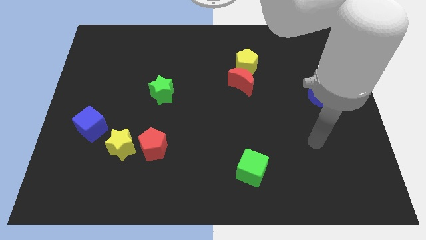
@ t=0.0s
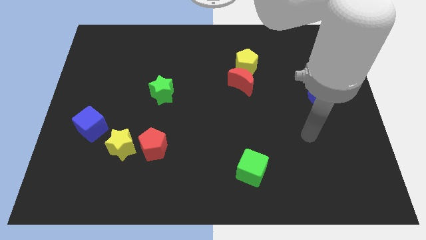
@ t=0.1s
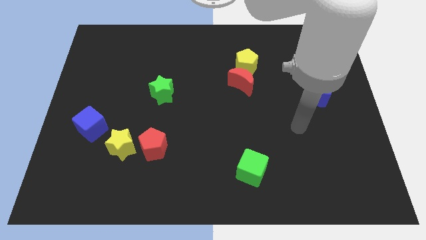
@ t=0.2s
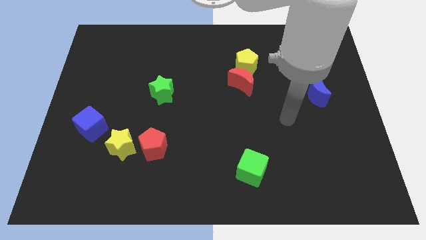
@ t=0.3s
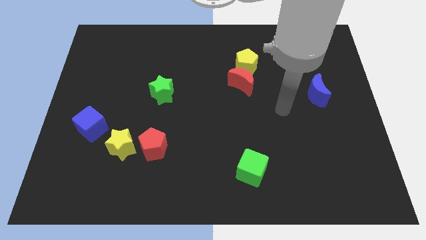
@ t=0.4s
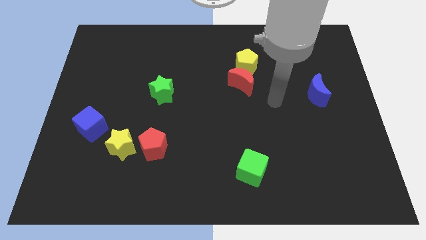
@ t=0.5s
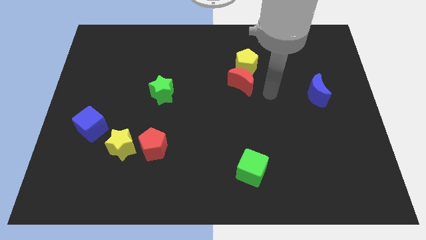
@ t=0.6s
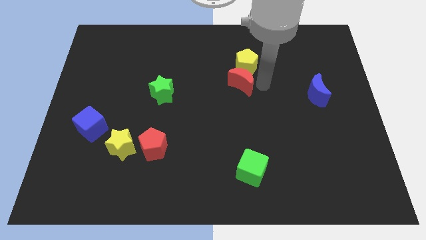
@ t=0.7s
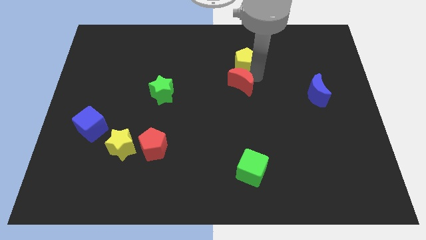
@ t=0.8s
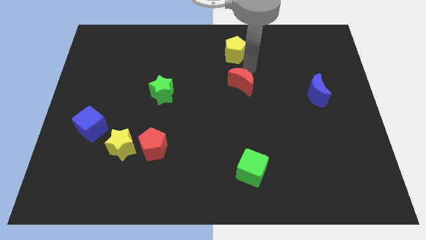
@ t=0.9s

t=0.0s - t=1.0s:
pull the red moon apart from the yellow pentagon

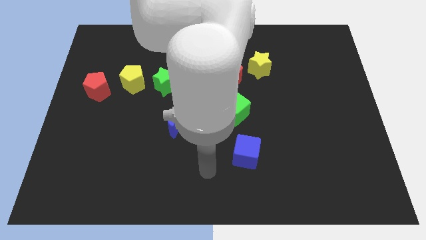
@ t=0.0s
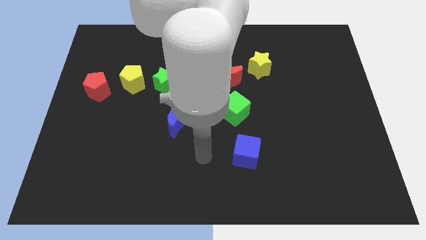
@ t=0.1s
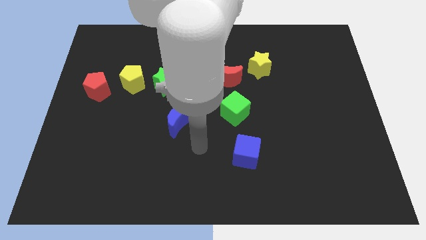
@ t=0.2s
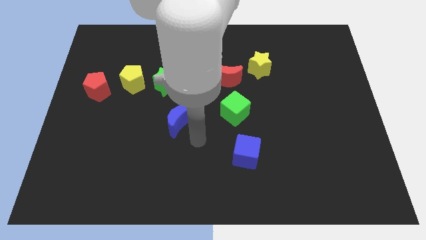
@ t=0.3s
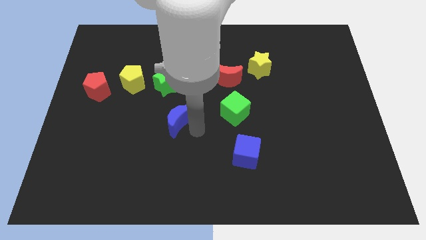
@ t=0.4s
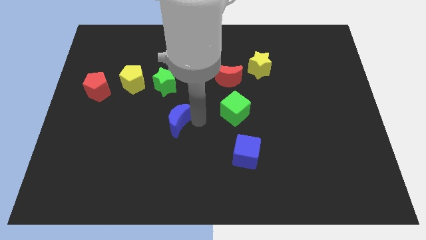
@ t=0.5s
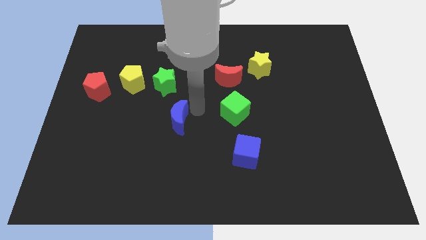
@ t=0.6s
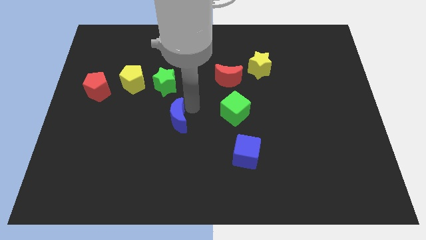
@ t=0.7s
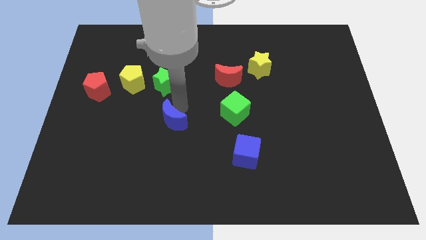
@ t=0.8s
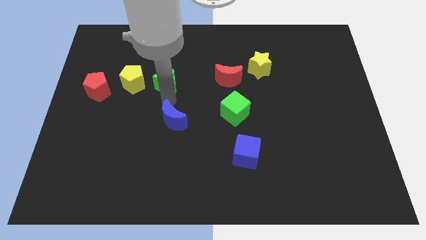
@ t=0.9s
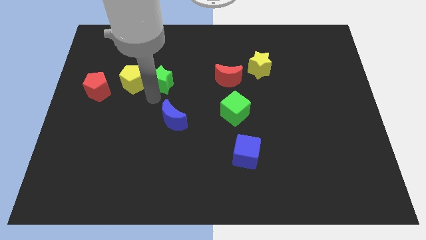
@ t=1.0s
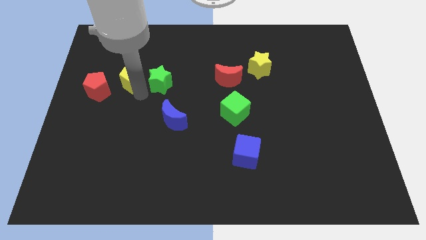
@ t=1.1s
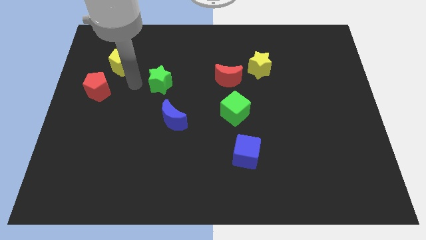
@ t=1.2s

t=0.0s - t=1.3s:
pull the green star apart from the yellow pentagon

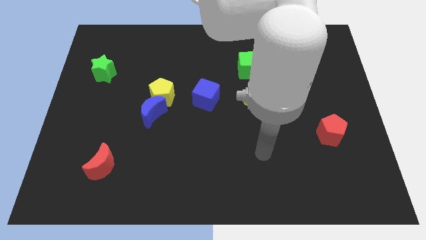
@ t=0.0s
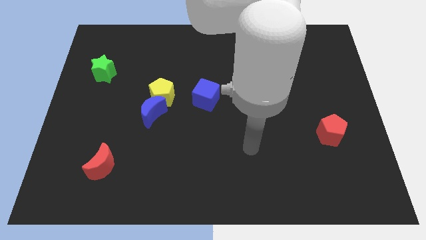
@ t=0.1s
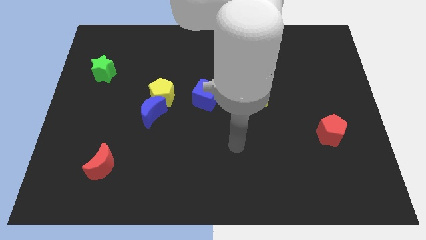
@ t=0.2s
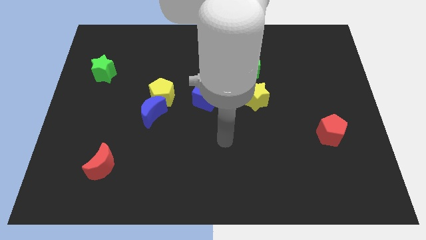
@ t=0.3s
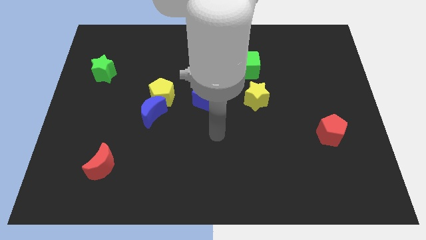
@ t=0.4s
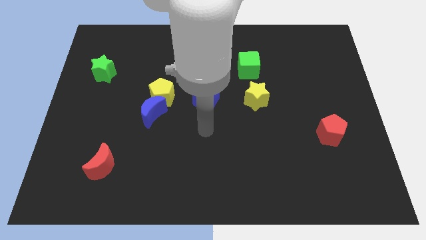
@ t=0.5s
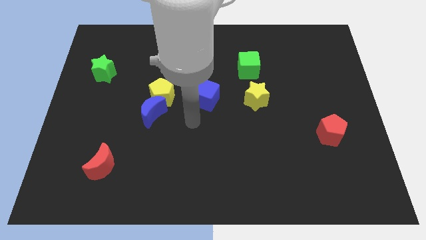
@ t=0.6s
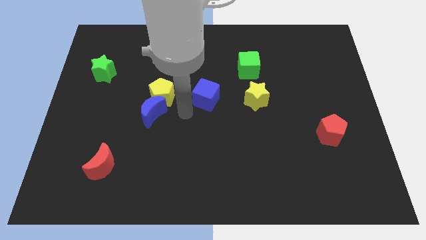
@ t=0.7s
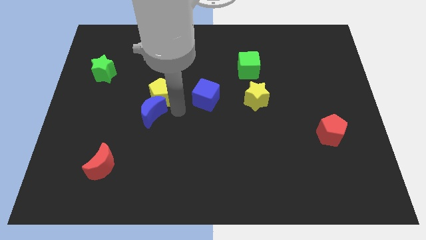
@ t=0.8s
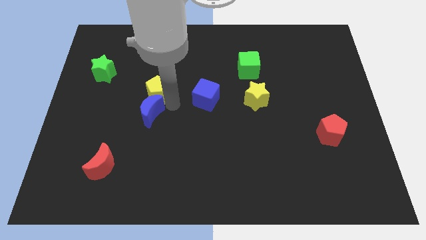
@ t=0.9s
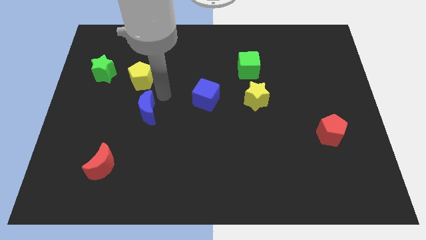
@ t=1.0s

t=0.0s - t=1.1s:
move the blue moon away from the yellow pentagon

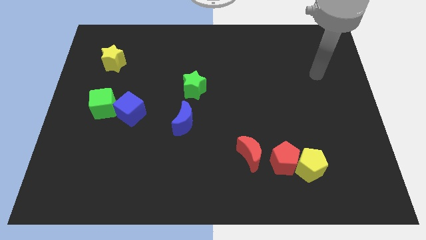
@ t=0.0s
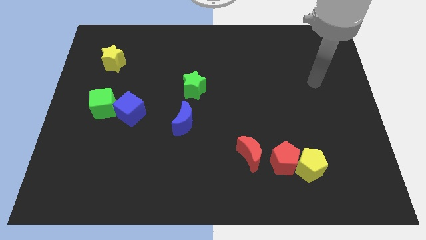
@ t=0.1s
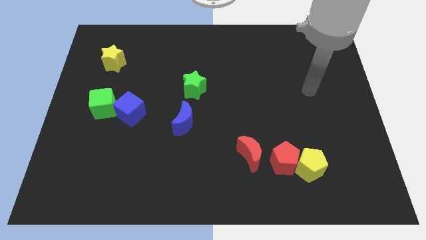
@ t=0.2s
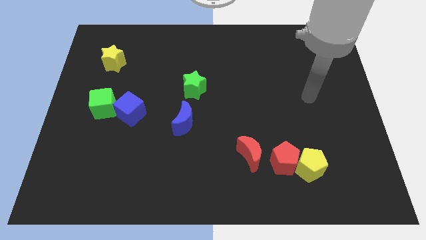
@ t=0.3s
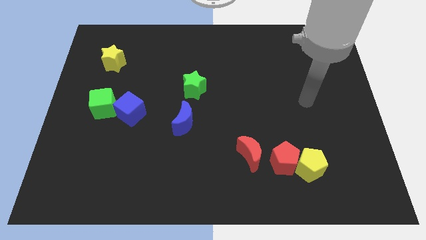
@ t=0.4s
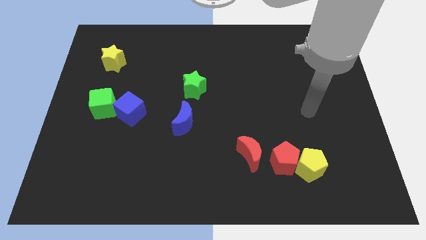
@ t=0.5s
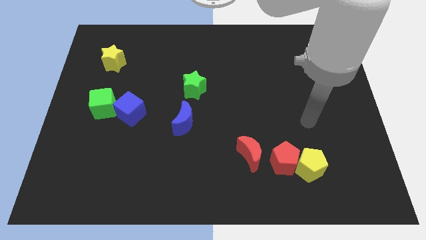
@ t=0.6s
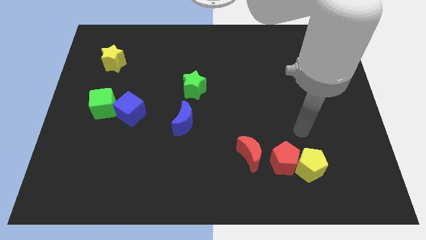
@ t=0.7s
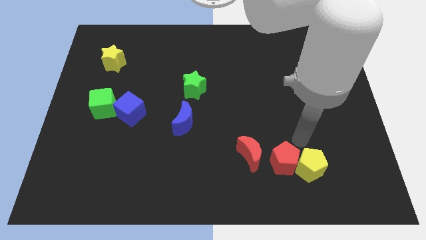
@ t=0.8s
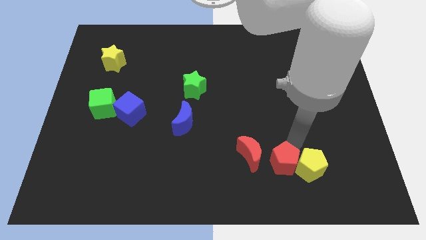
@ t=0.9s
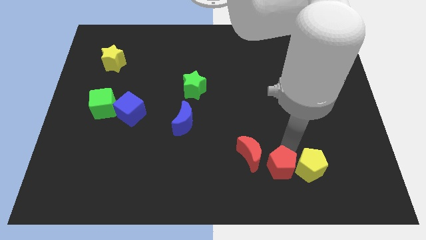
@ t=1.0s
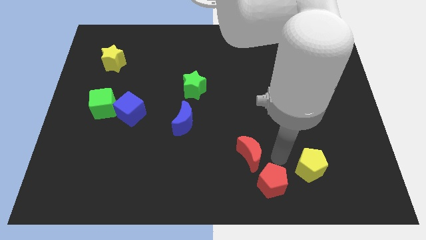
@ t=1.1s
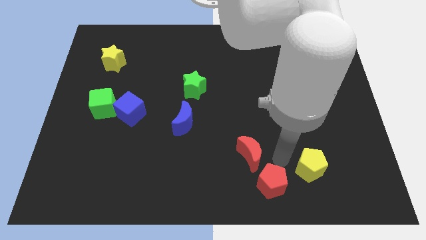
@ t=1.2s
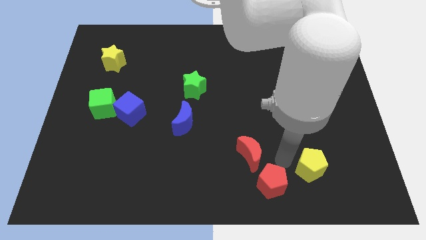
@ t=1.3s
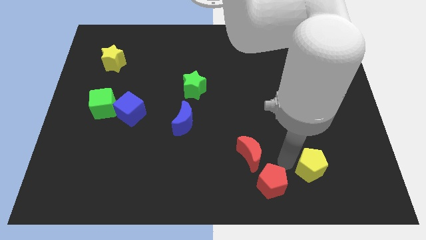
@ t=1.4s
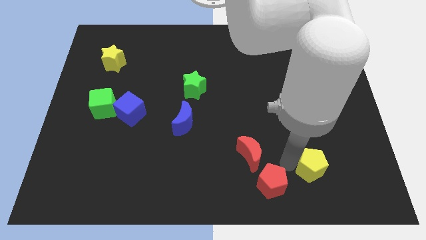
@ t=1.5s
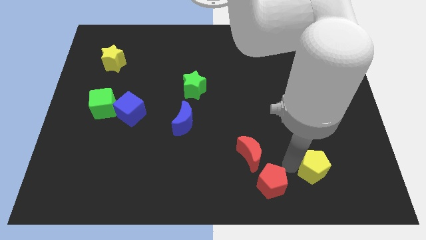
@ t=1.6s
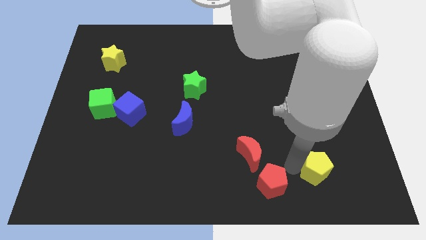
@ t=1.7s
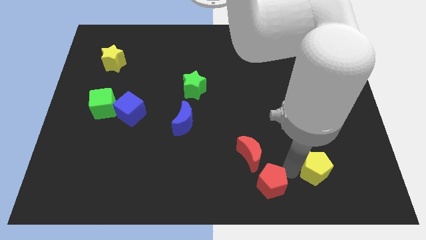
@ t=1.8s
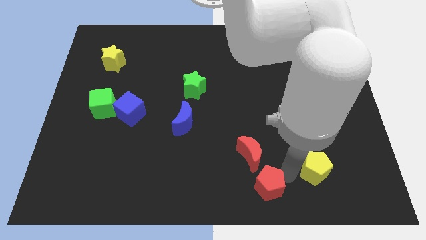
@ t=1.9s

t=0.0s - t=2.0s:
move the yellow pentagon away from the red pentagon

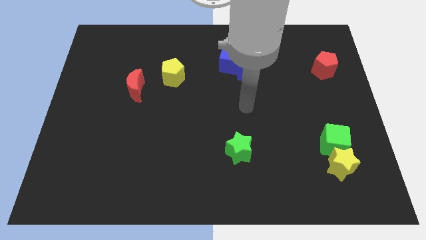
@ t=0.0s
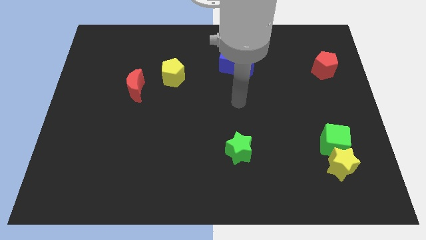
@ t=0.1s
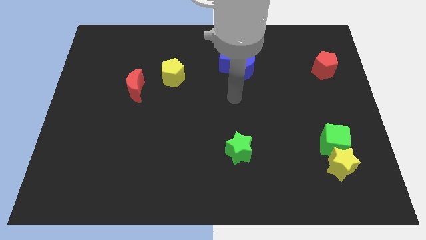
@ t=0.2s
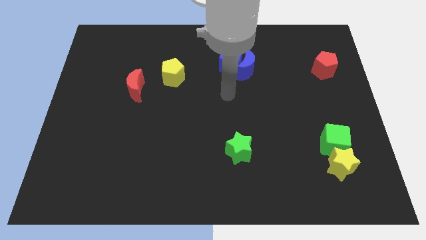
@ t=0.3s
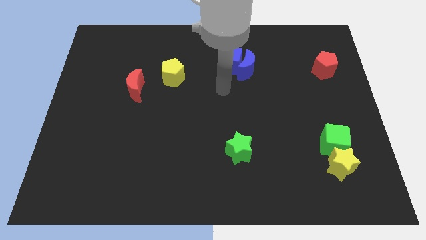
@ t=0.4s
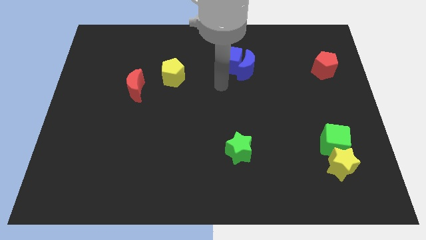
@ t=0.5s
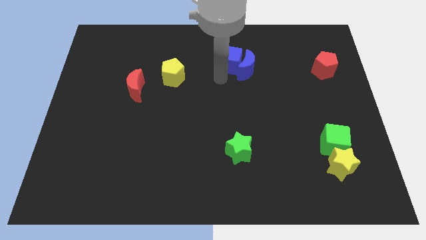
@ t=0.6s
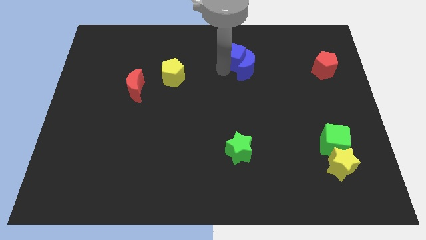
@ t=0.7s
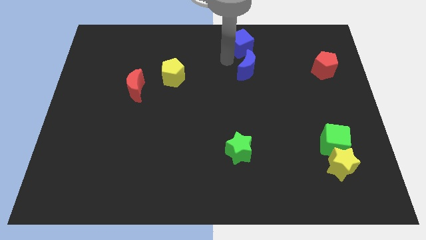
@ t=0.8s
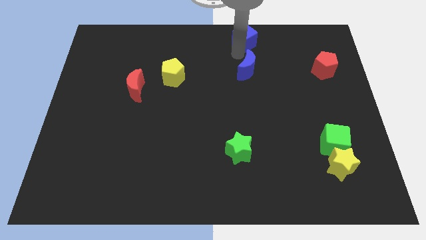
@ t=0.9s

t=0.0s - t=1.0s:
pull the blue moon apart from the blue cube

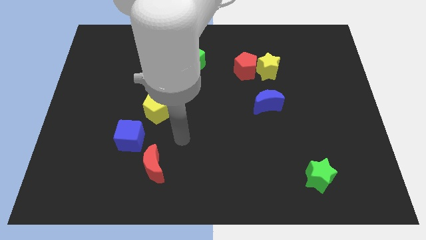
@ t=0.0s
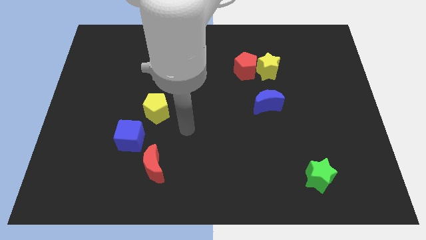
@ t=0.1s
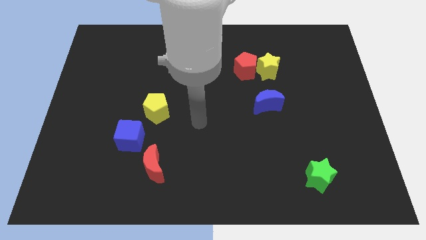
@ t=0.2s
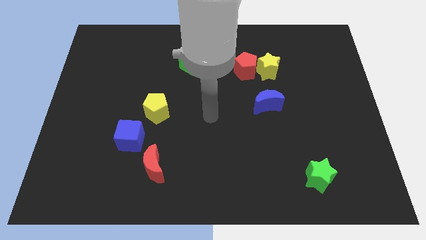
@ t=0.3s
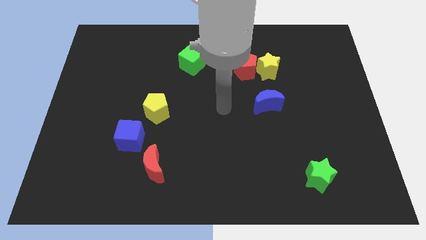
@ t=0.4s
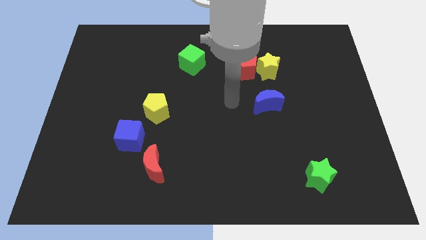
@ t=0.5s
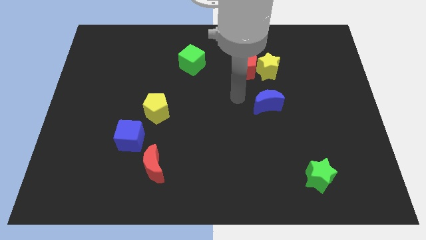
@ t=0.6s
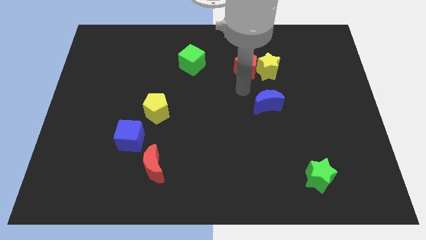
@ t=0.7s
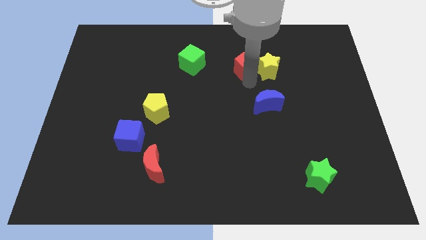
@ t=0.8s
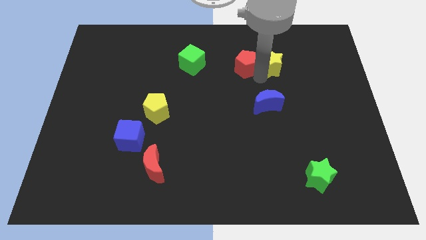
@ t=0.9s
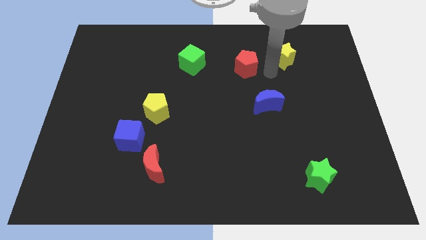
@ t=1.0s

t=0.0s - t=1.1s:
separate the red pentagon from the yellow star

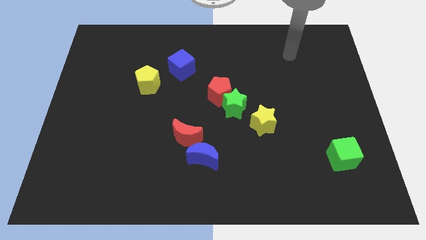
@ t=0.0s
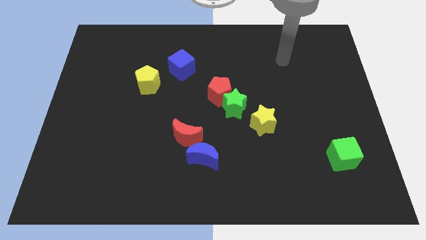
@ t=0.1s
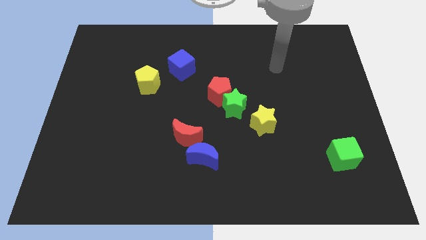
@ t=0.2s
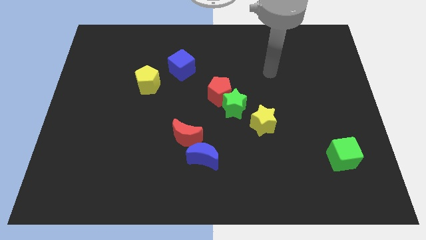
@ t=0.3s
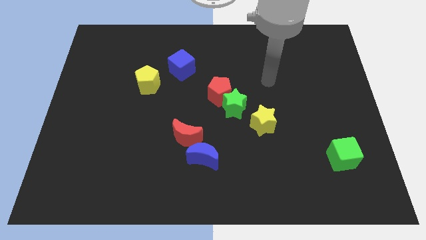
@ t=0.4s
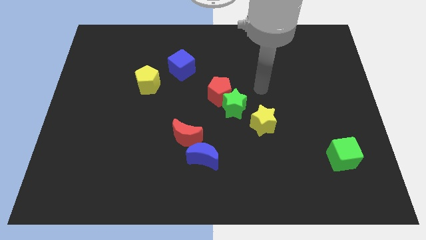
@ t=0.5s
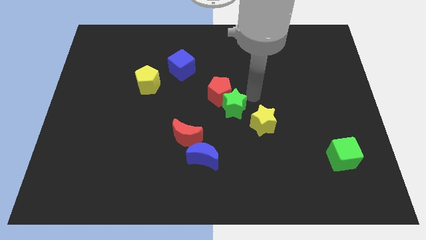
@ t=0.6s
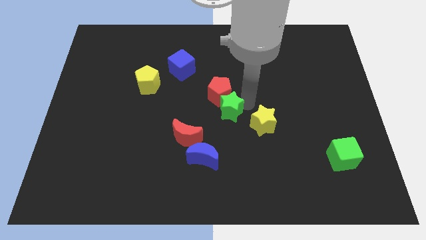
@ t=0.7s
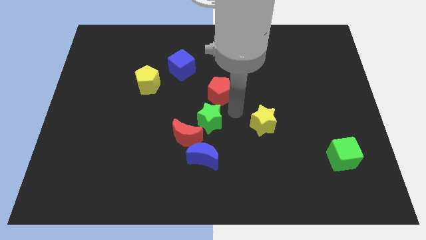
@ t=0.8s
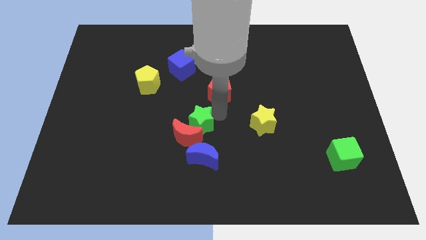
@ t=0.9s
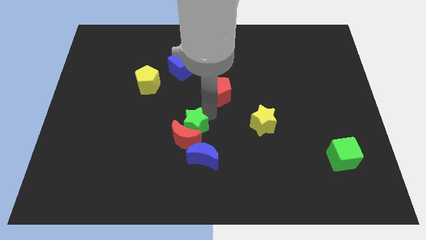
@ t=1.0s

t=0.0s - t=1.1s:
move the red pentagon away from the green star

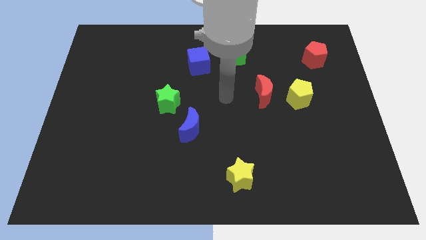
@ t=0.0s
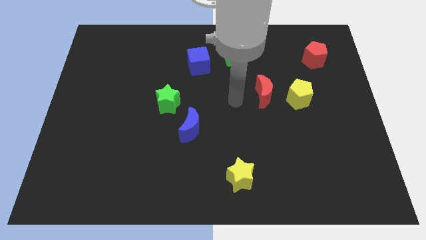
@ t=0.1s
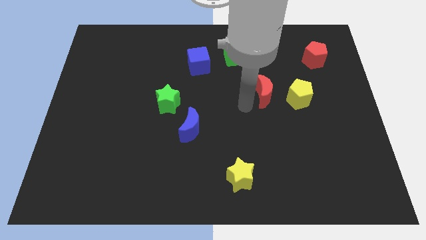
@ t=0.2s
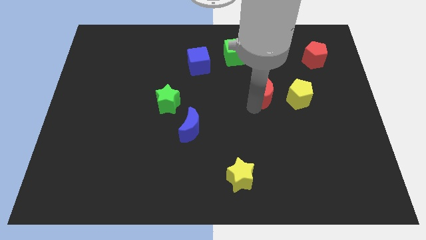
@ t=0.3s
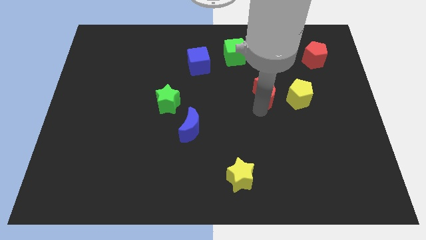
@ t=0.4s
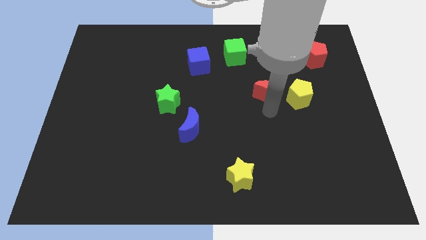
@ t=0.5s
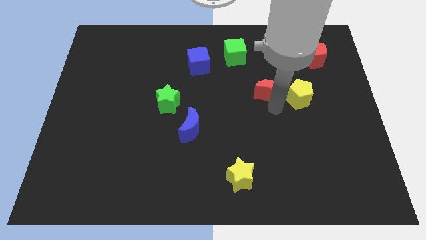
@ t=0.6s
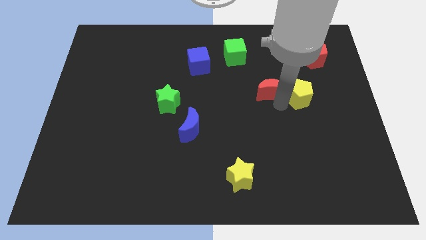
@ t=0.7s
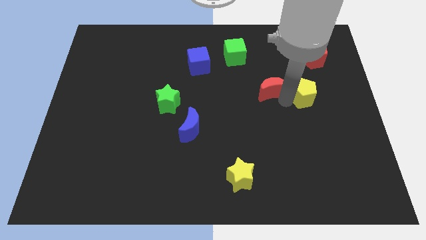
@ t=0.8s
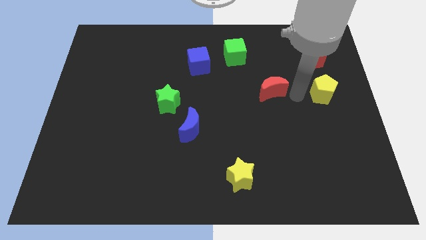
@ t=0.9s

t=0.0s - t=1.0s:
move the red moon away from the yellow pentagon
